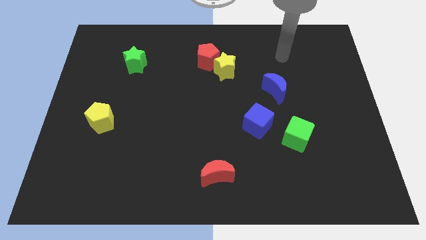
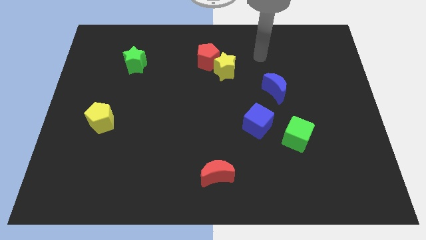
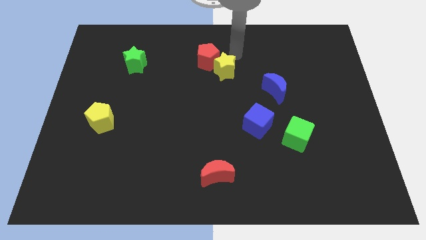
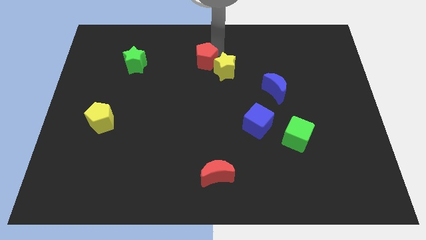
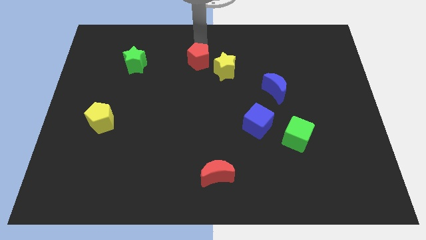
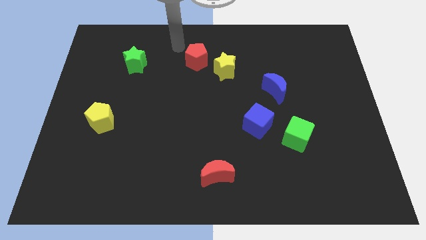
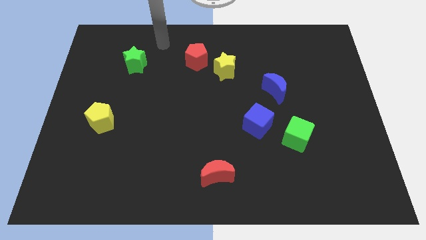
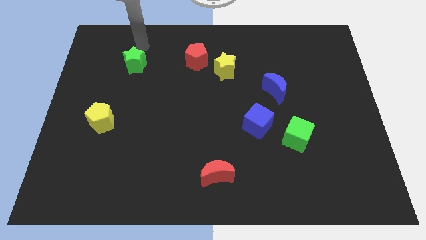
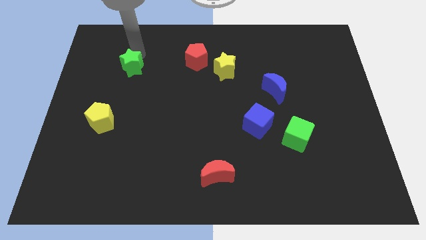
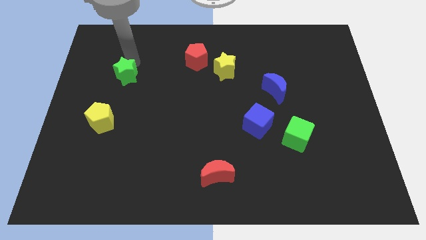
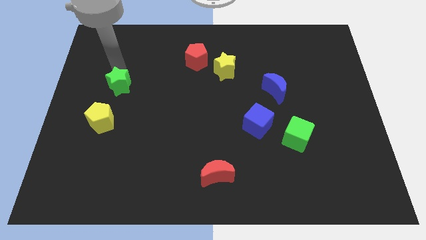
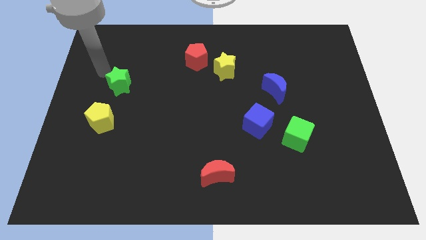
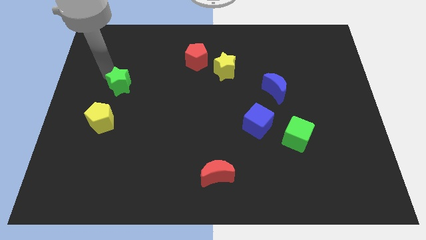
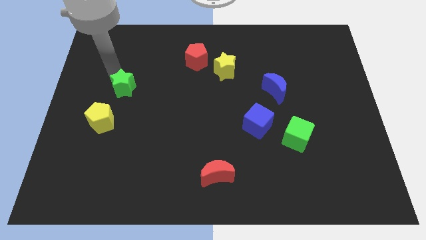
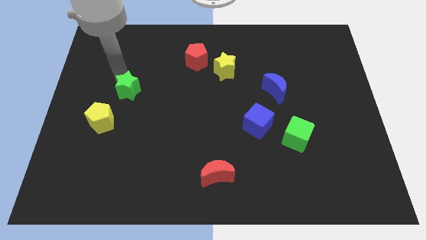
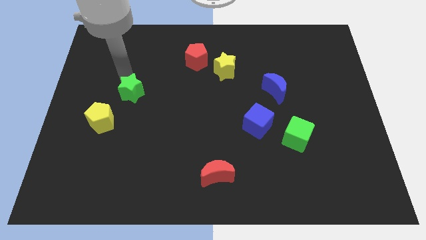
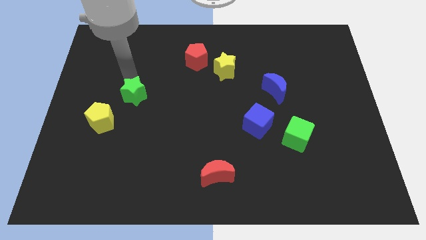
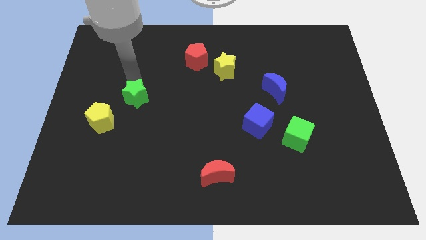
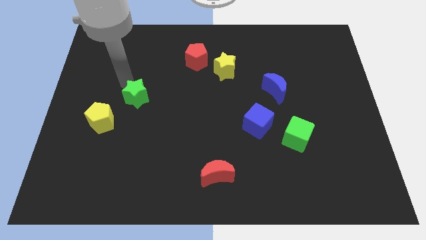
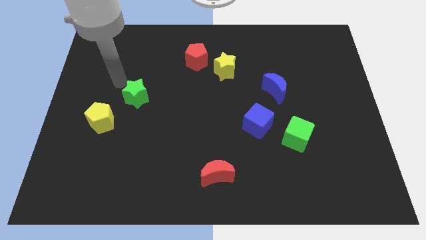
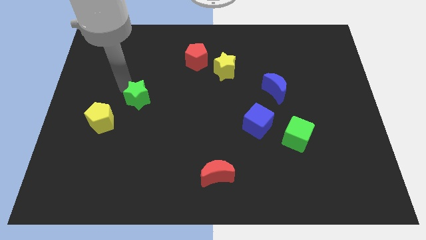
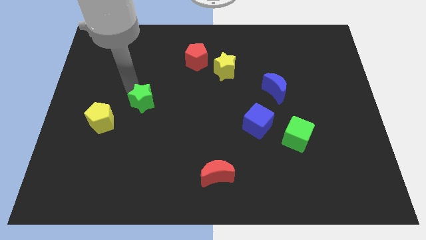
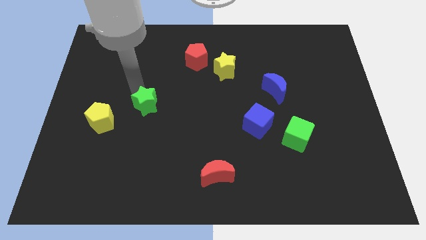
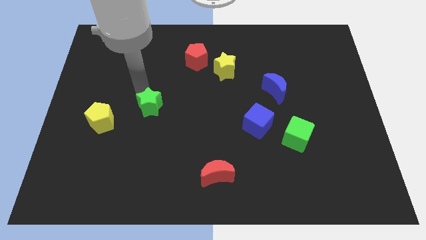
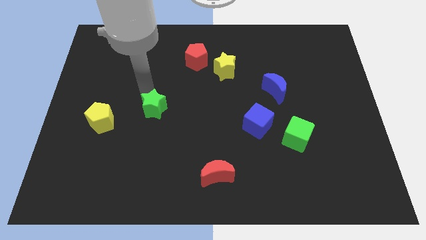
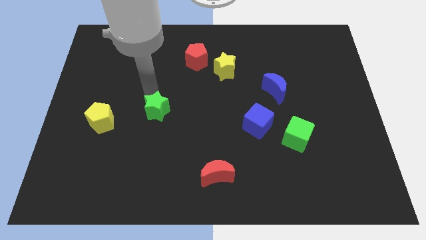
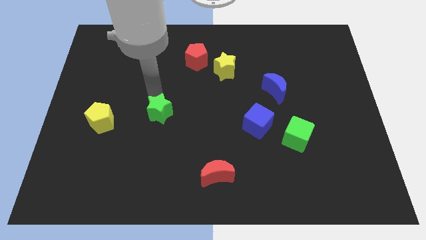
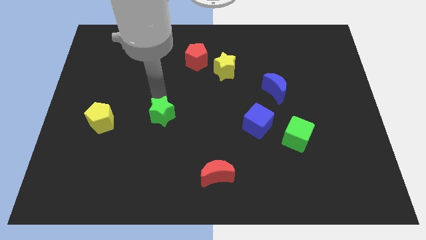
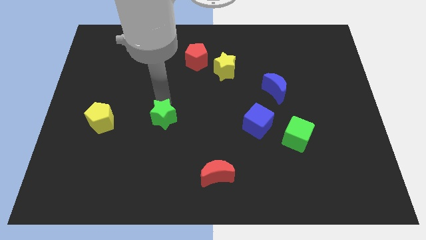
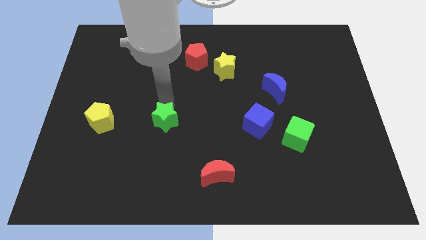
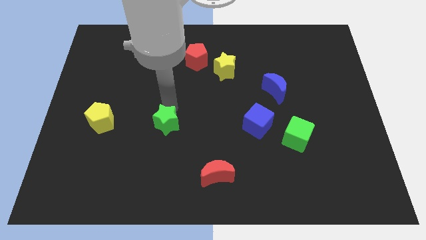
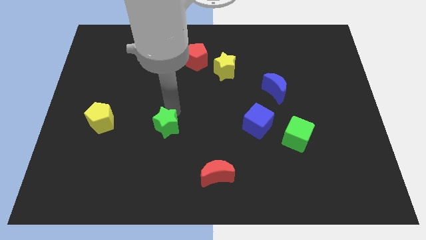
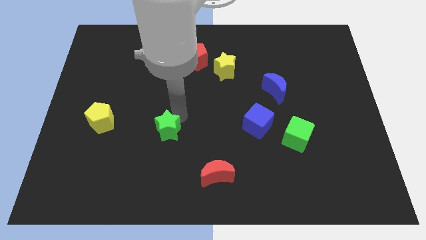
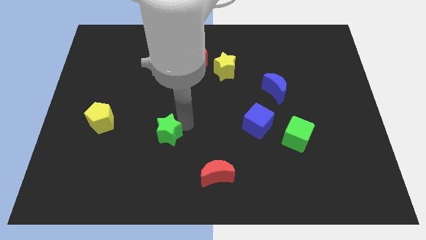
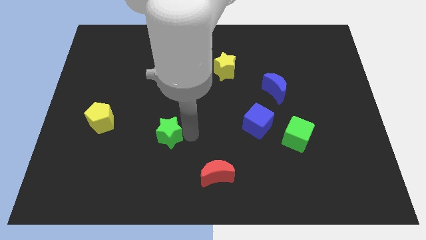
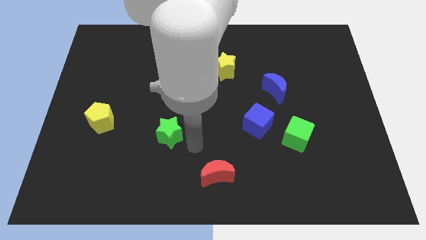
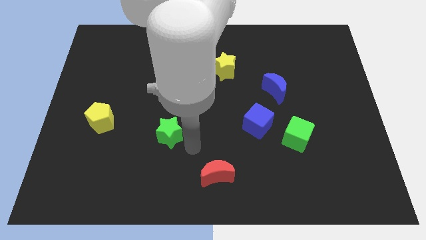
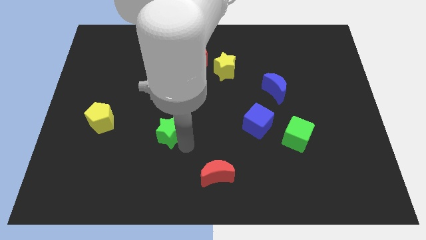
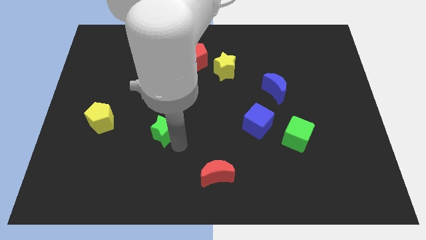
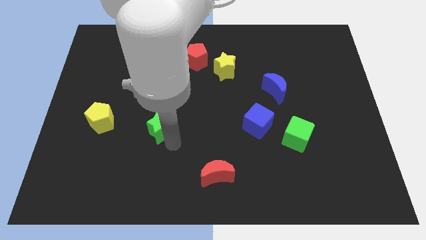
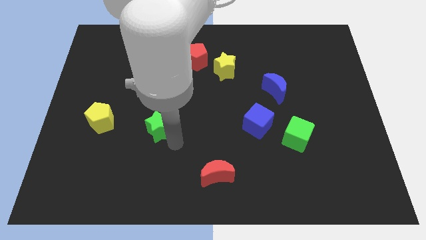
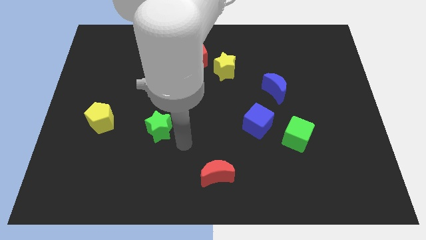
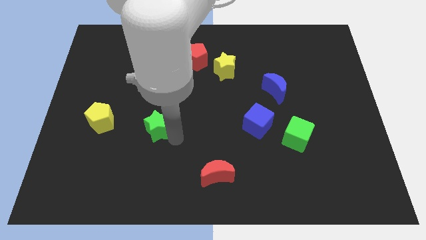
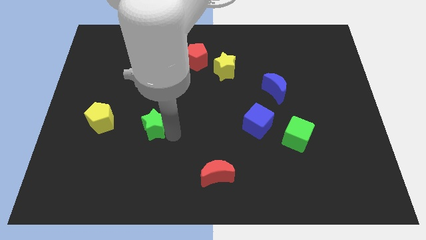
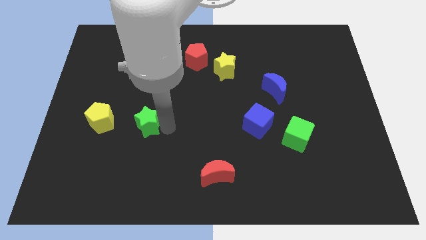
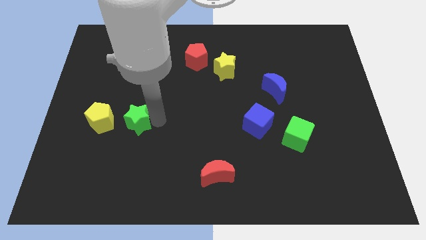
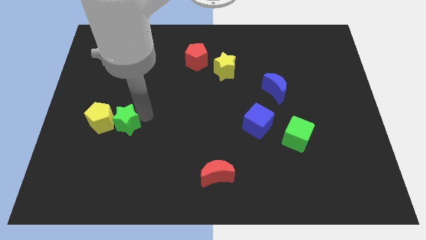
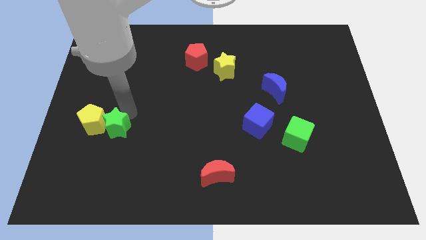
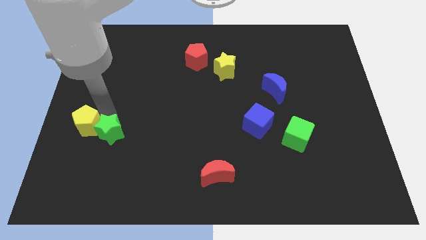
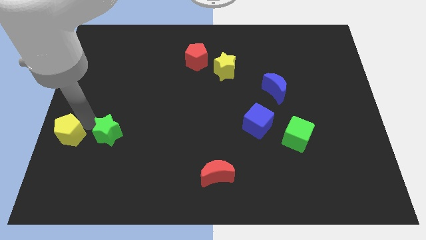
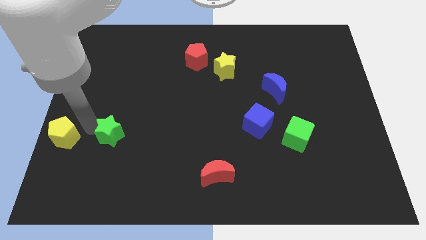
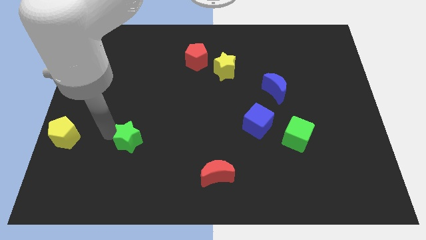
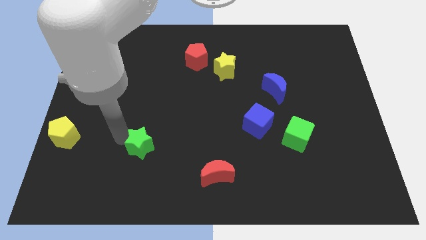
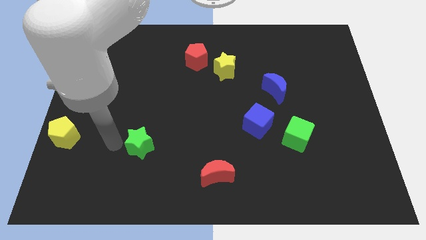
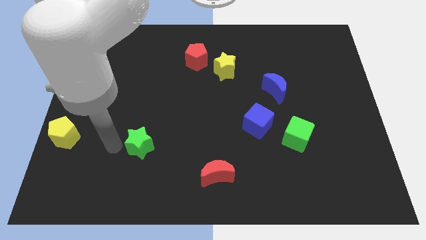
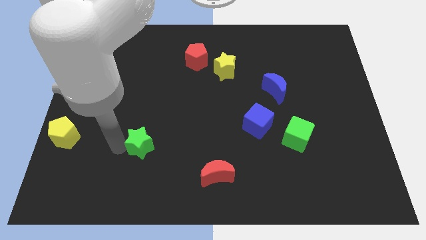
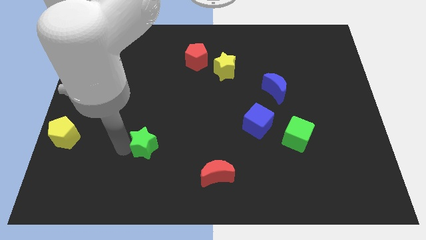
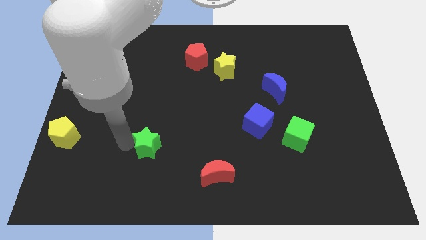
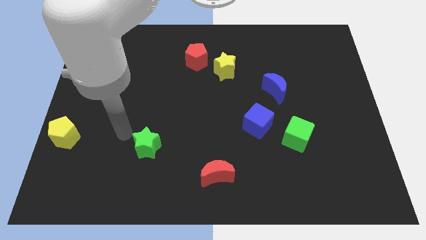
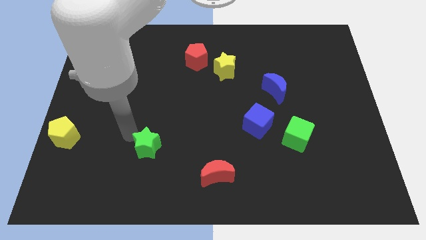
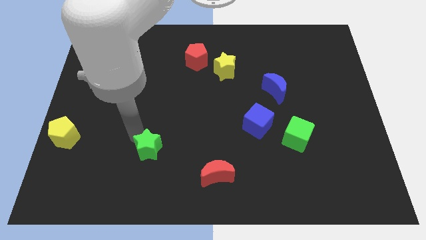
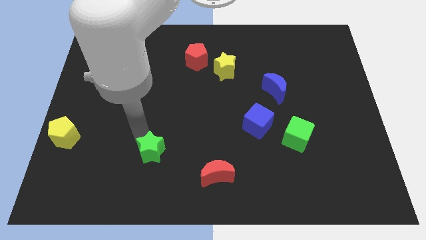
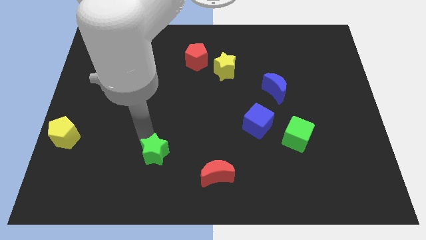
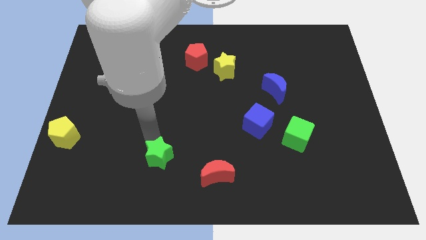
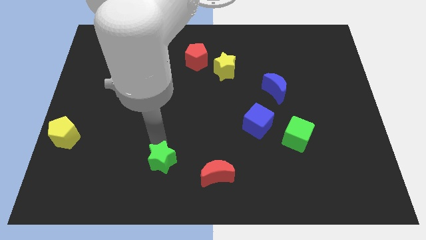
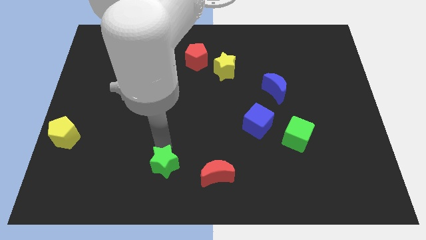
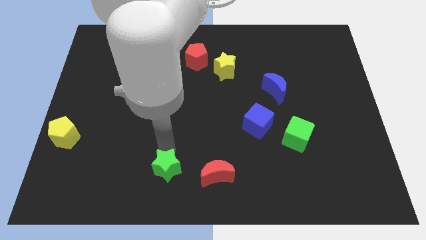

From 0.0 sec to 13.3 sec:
push the green star to the bottom side
